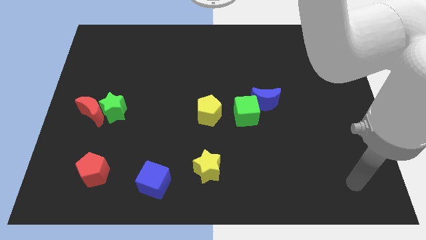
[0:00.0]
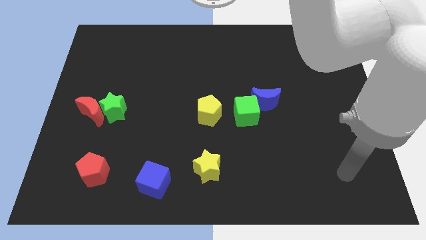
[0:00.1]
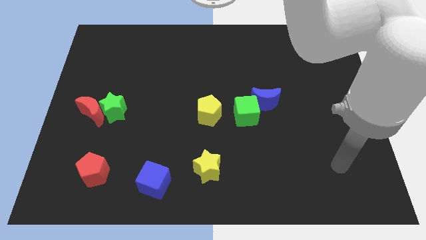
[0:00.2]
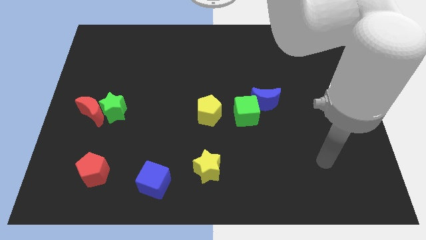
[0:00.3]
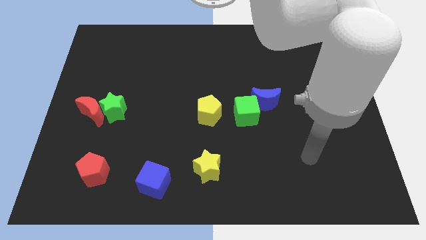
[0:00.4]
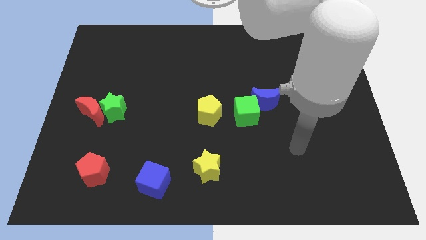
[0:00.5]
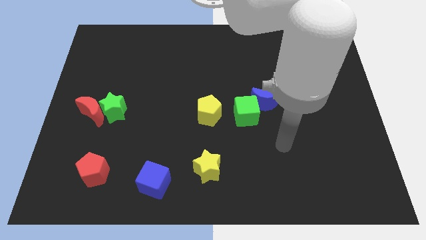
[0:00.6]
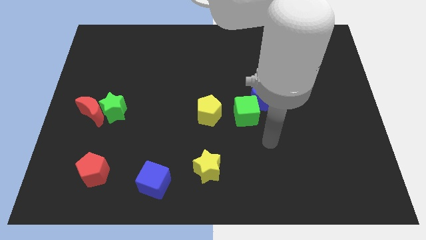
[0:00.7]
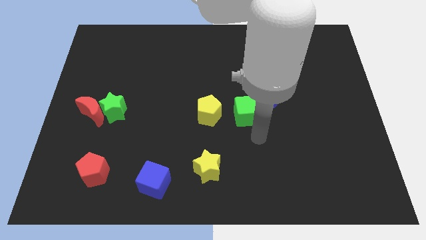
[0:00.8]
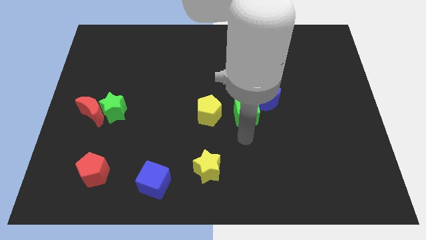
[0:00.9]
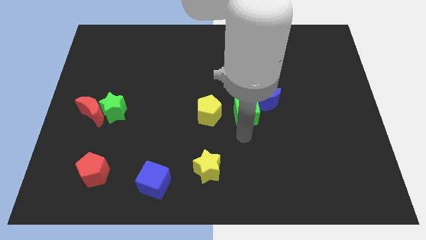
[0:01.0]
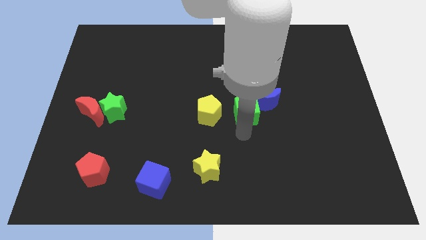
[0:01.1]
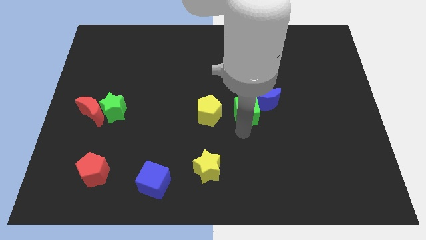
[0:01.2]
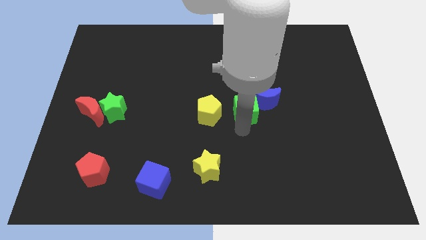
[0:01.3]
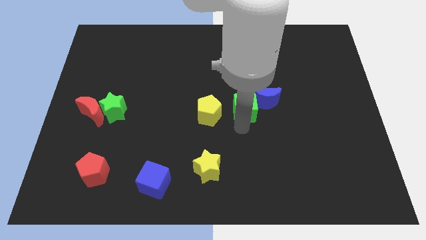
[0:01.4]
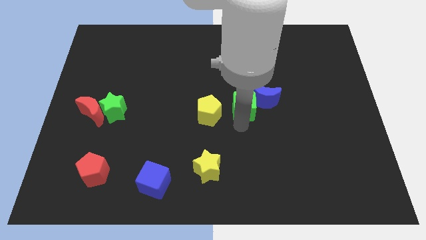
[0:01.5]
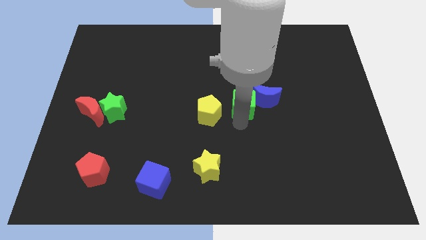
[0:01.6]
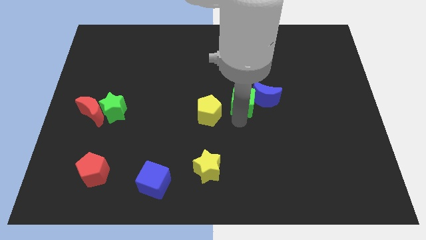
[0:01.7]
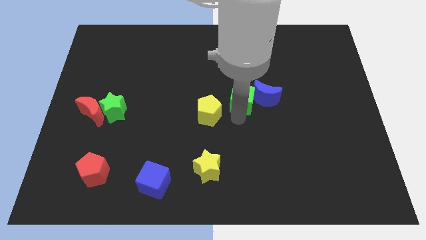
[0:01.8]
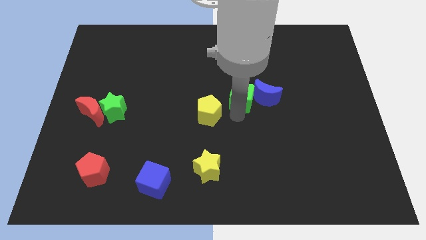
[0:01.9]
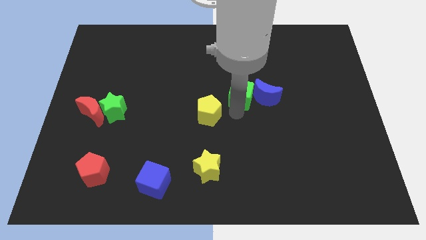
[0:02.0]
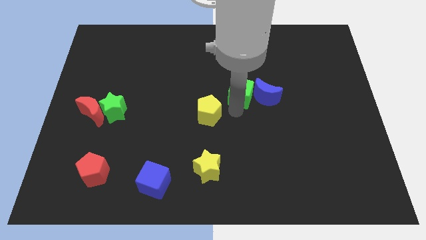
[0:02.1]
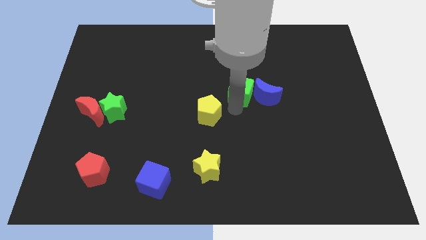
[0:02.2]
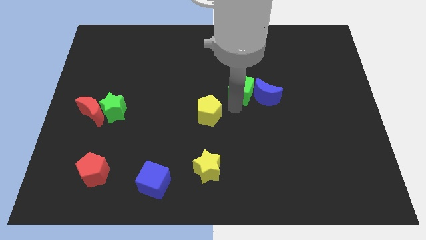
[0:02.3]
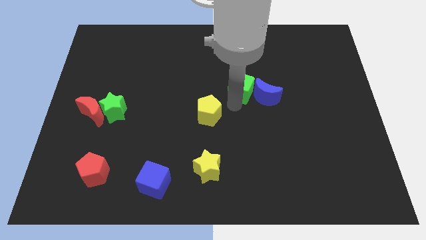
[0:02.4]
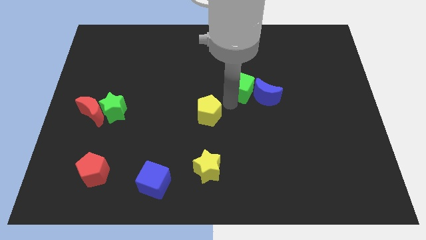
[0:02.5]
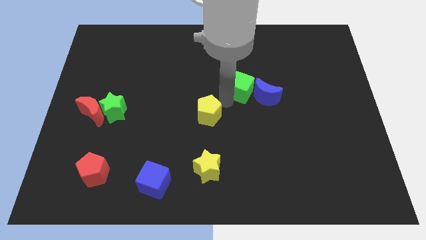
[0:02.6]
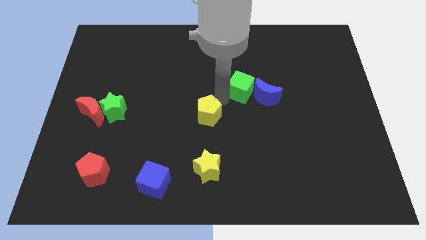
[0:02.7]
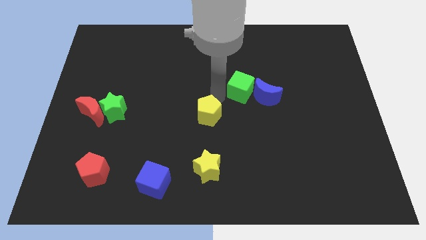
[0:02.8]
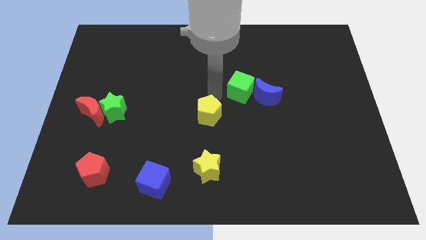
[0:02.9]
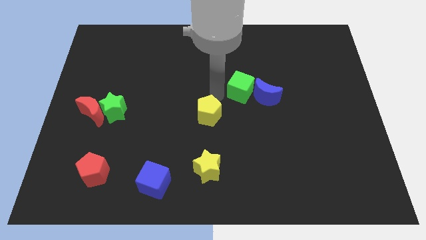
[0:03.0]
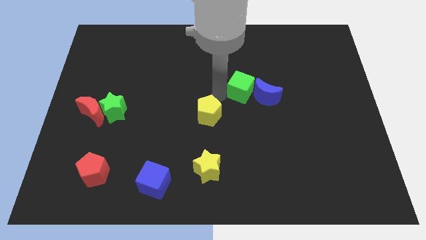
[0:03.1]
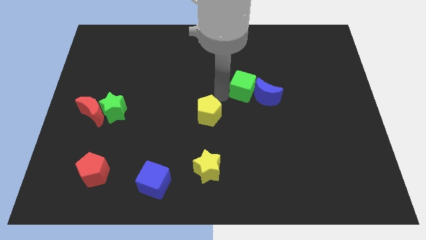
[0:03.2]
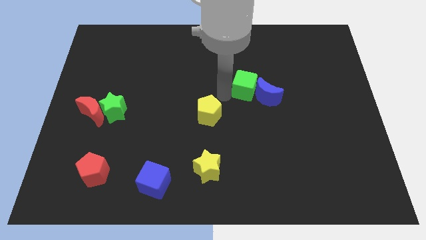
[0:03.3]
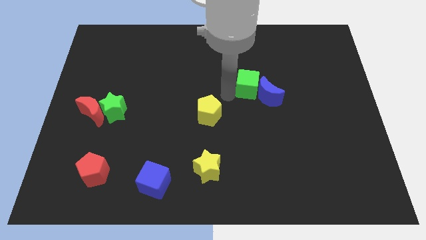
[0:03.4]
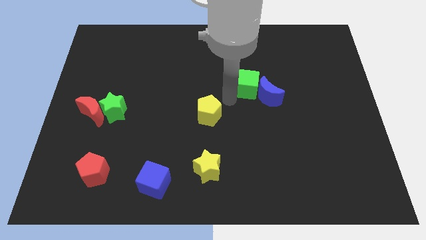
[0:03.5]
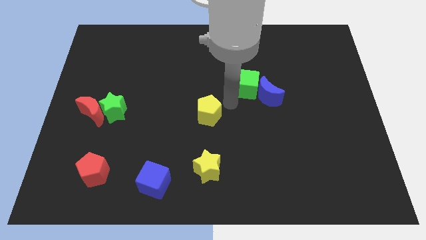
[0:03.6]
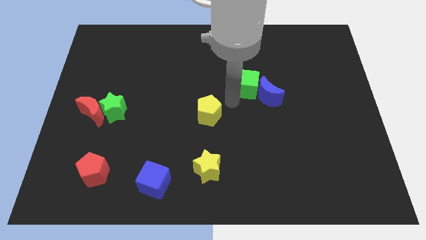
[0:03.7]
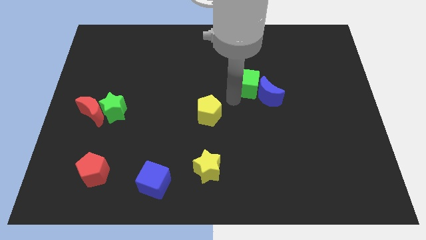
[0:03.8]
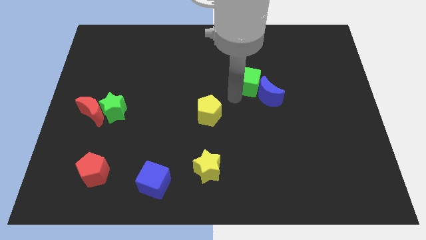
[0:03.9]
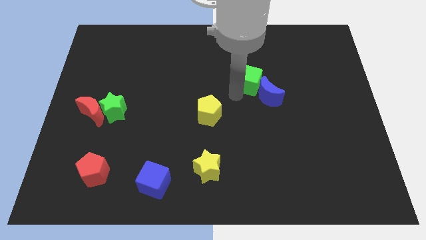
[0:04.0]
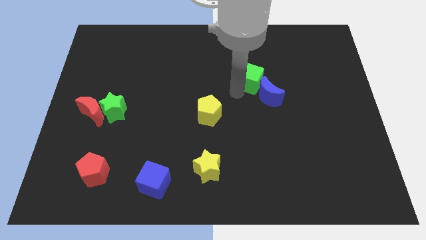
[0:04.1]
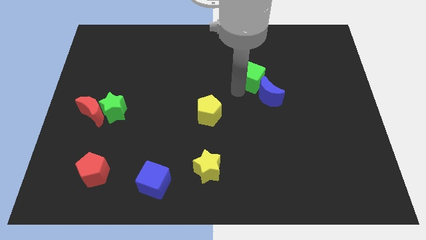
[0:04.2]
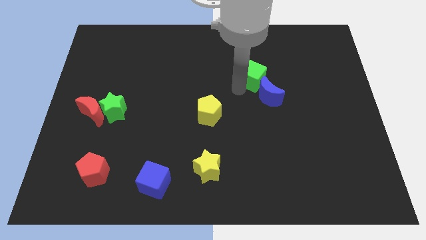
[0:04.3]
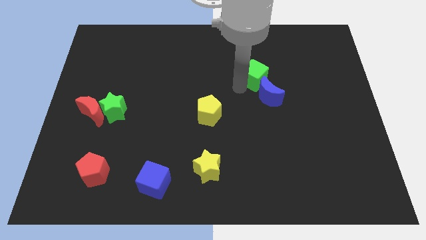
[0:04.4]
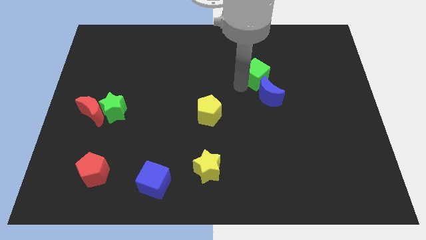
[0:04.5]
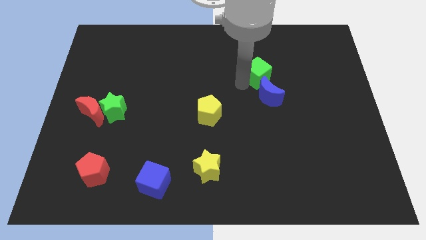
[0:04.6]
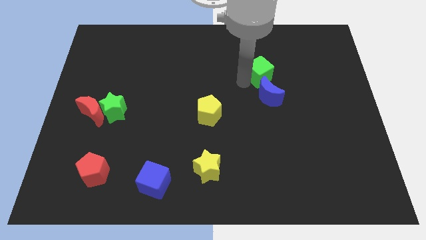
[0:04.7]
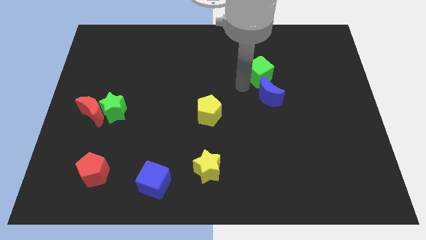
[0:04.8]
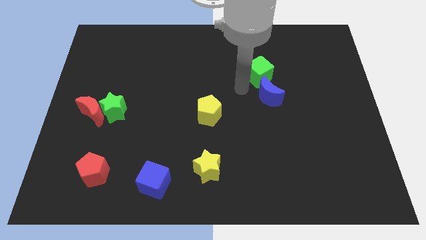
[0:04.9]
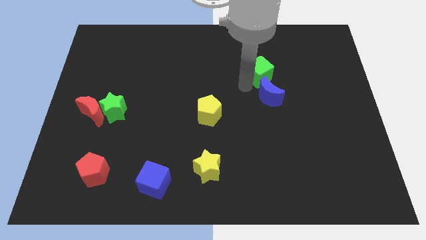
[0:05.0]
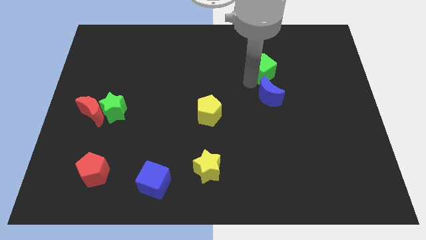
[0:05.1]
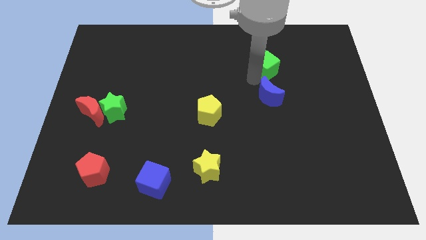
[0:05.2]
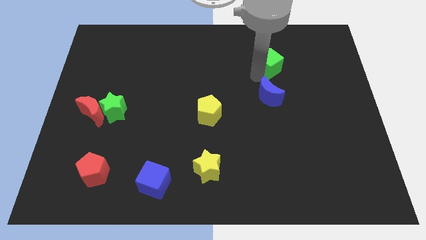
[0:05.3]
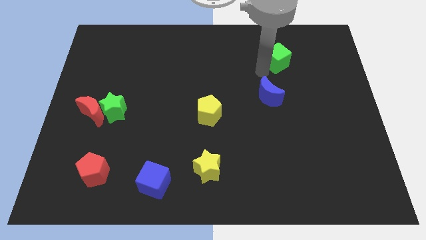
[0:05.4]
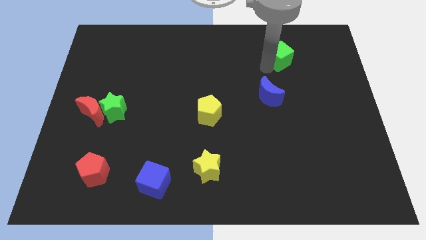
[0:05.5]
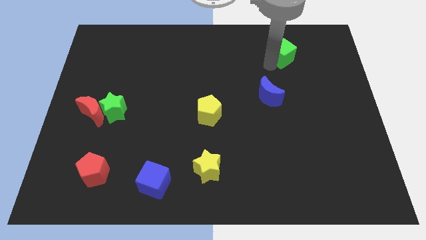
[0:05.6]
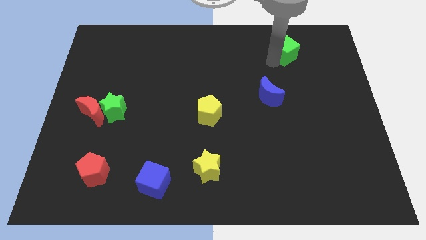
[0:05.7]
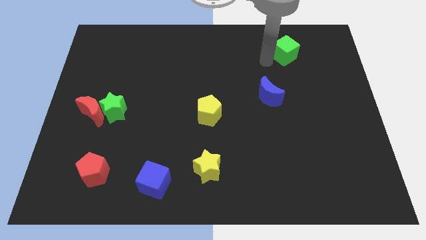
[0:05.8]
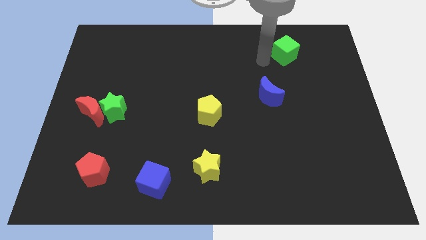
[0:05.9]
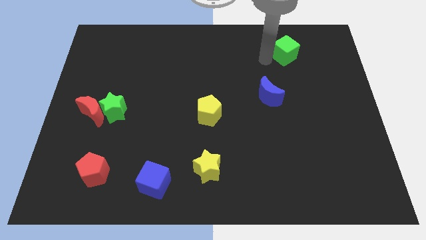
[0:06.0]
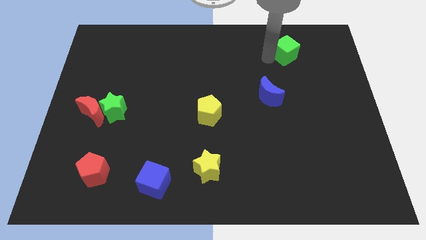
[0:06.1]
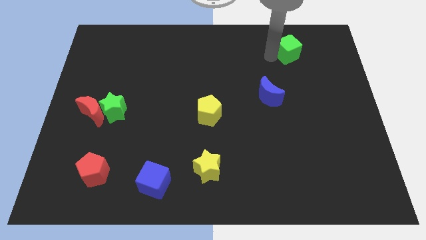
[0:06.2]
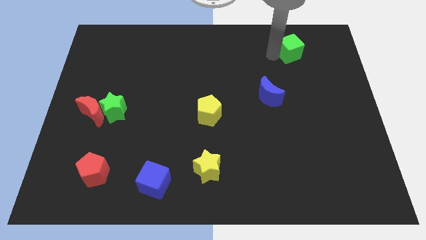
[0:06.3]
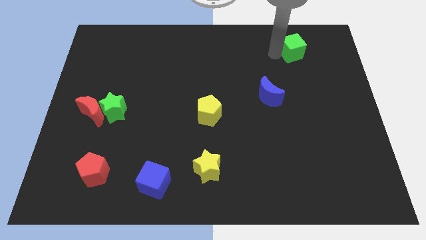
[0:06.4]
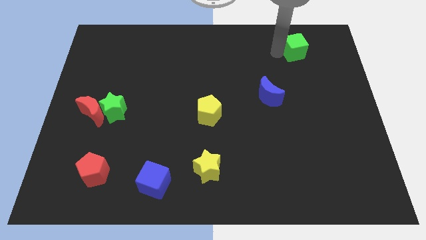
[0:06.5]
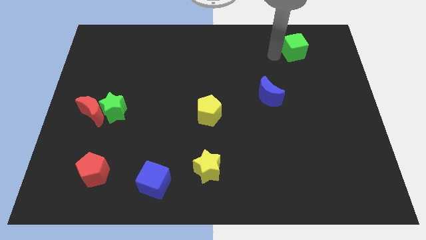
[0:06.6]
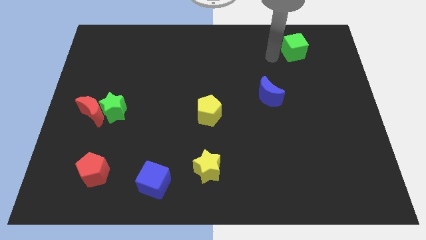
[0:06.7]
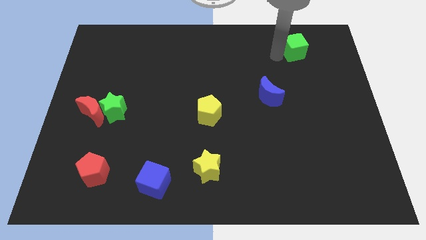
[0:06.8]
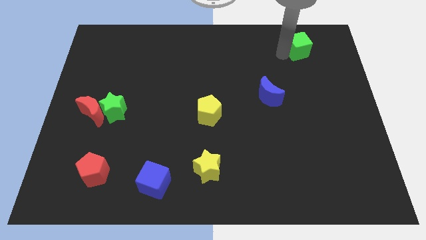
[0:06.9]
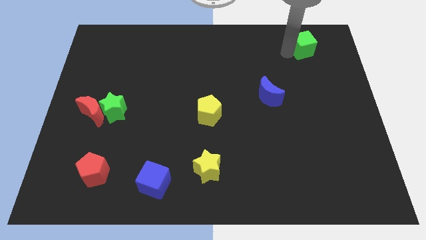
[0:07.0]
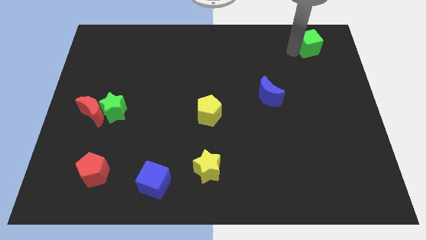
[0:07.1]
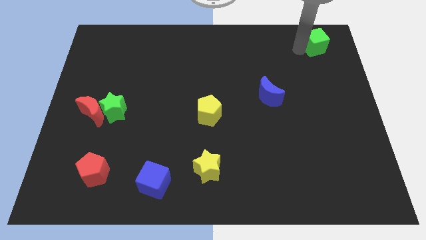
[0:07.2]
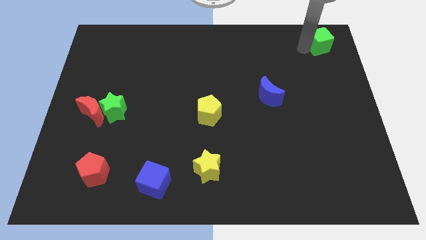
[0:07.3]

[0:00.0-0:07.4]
slide the green cube to the top right
